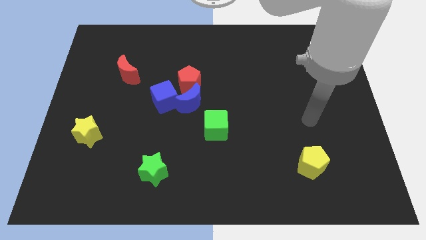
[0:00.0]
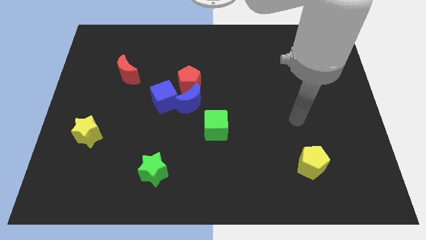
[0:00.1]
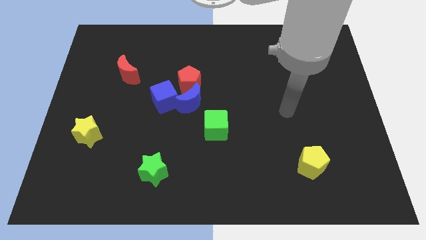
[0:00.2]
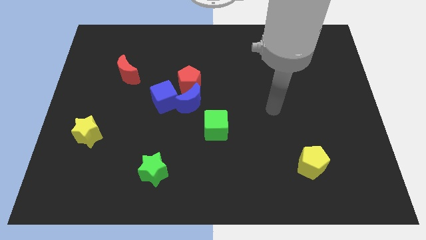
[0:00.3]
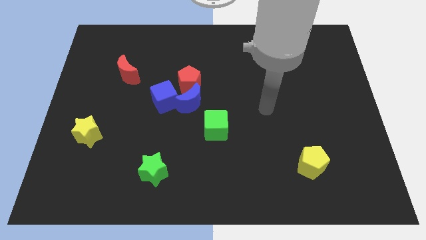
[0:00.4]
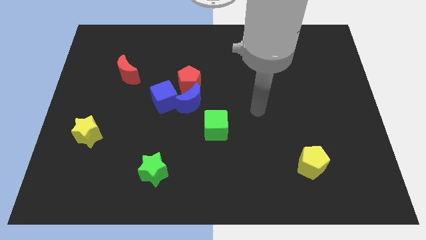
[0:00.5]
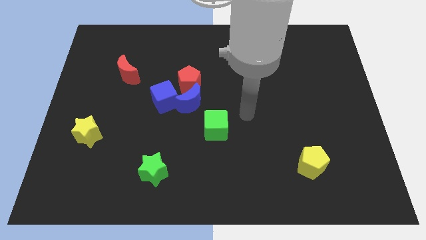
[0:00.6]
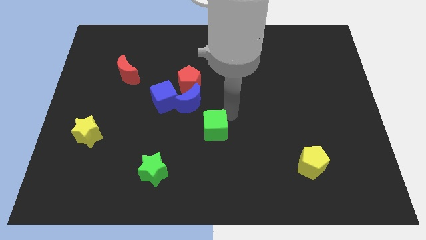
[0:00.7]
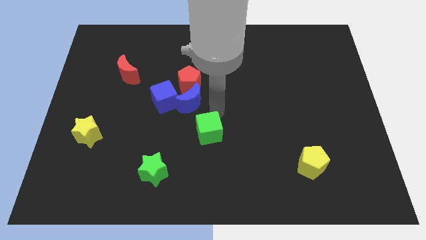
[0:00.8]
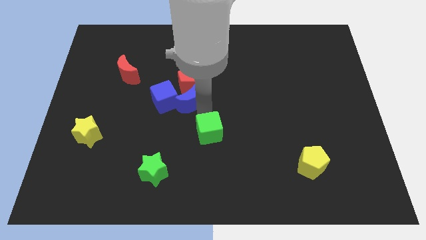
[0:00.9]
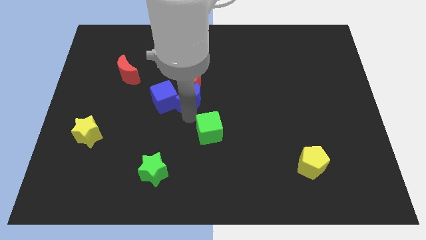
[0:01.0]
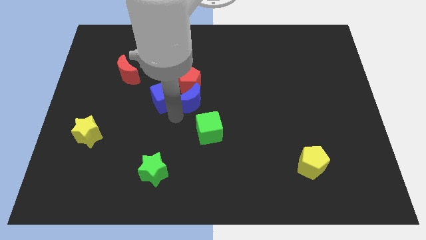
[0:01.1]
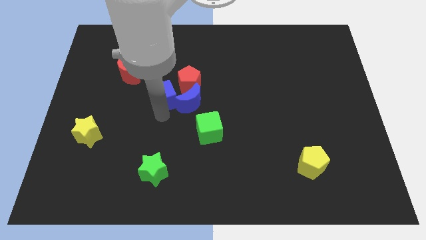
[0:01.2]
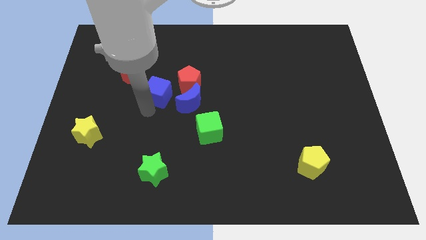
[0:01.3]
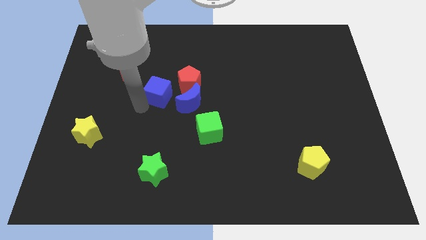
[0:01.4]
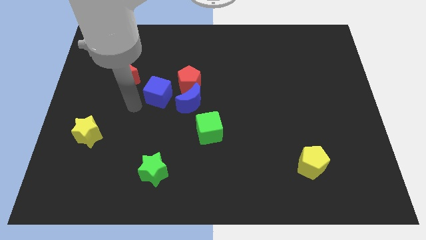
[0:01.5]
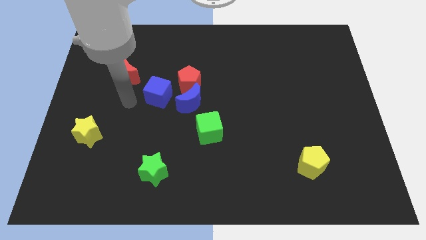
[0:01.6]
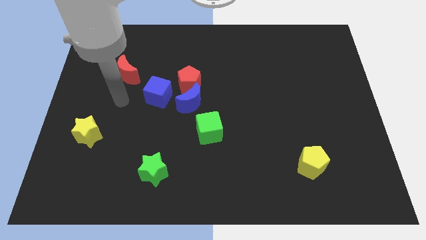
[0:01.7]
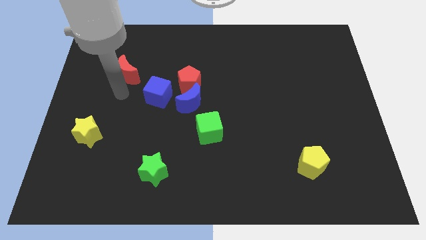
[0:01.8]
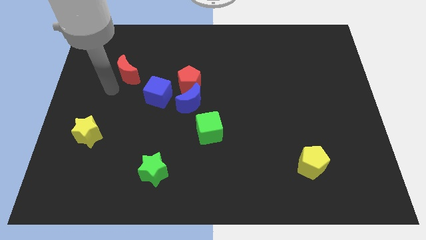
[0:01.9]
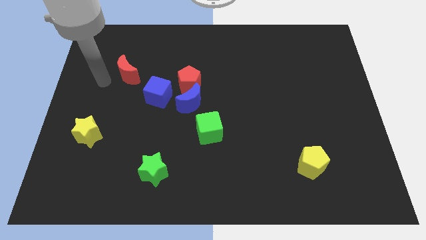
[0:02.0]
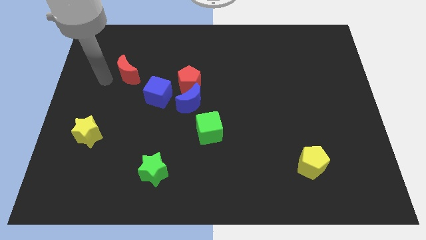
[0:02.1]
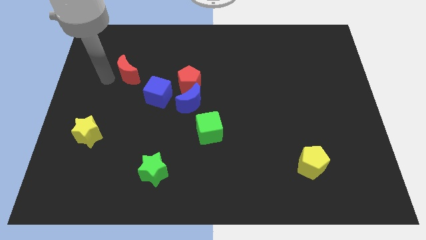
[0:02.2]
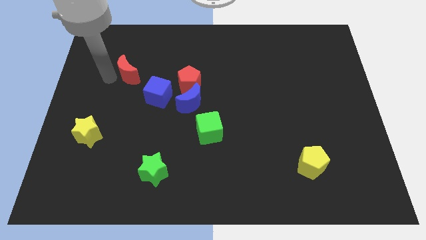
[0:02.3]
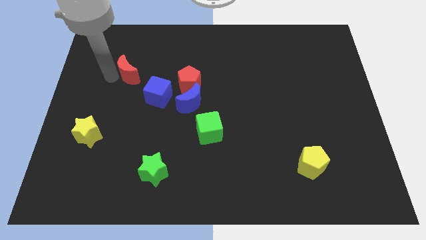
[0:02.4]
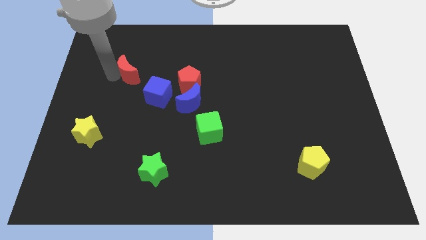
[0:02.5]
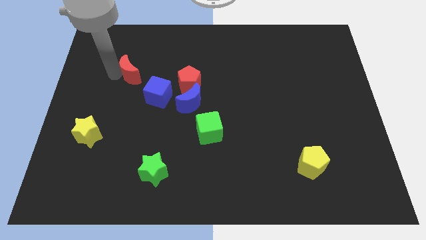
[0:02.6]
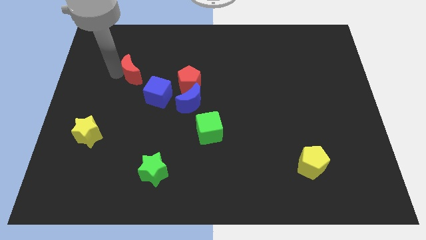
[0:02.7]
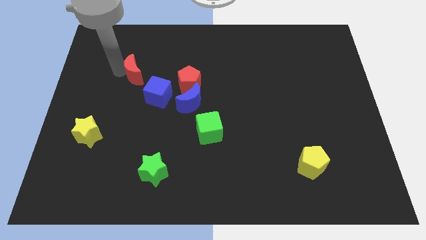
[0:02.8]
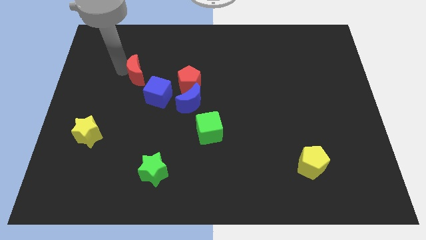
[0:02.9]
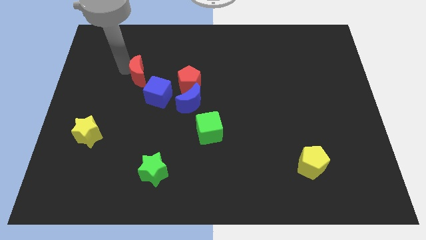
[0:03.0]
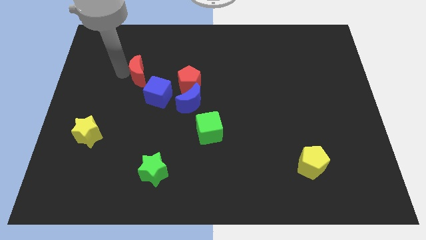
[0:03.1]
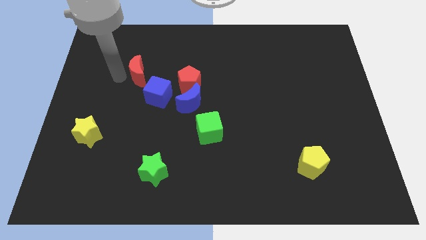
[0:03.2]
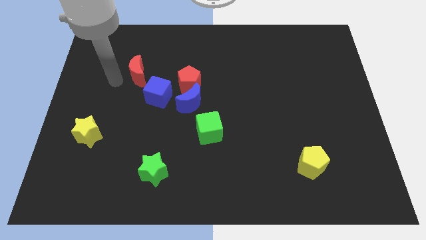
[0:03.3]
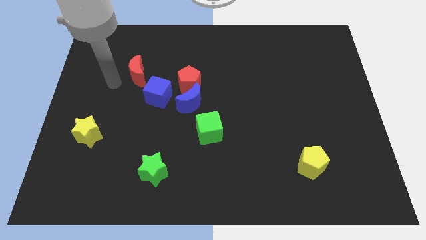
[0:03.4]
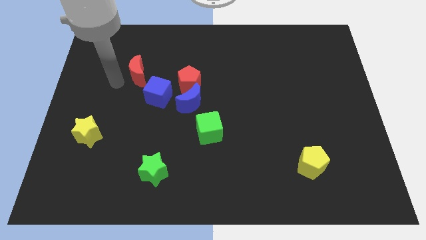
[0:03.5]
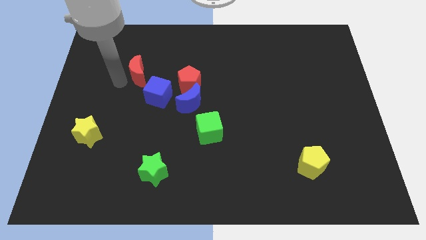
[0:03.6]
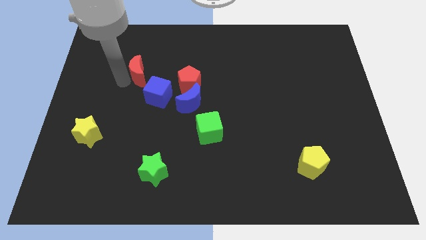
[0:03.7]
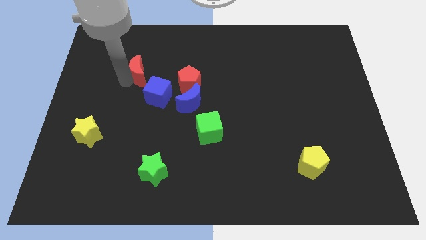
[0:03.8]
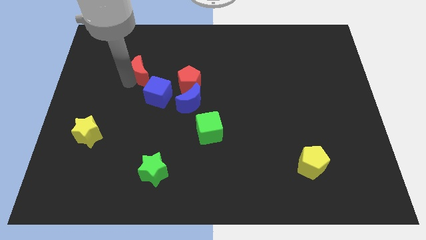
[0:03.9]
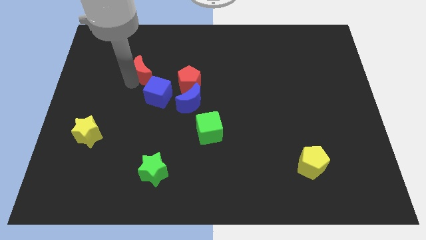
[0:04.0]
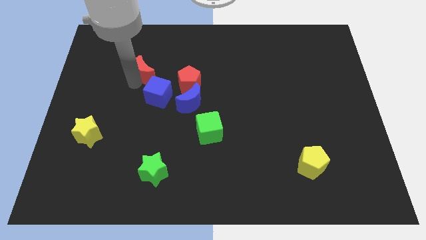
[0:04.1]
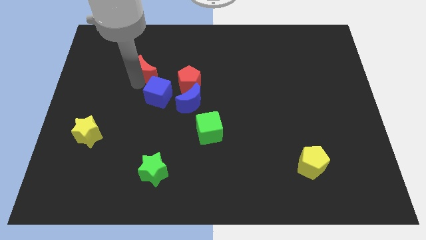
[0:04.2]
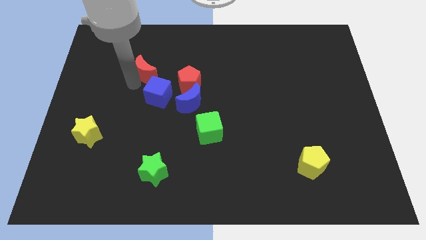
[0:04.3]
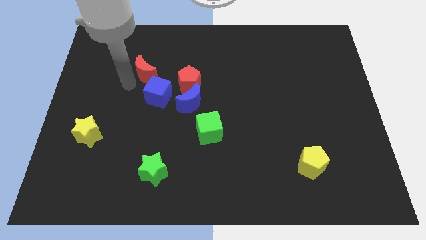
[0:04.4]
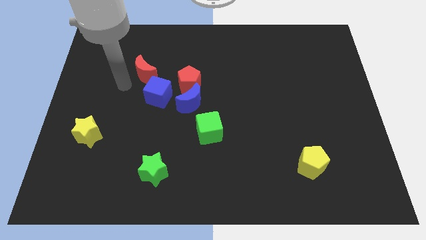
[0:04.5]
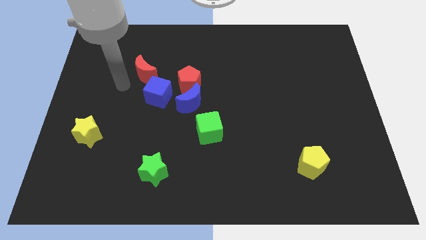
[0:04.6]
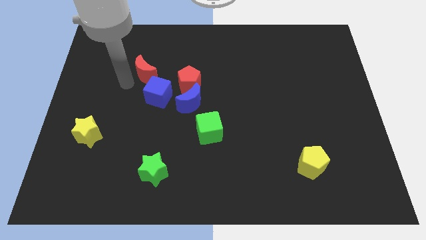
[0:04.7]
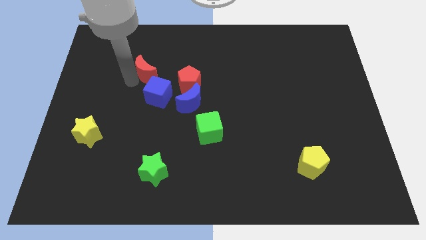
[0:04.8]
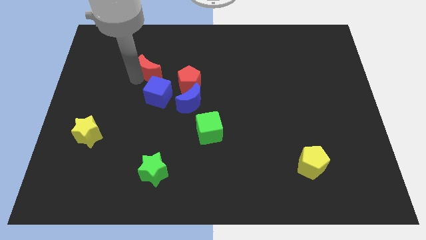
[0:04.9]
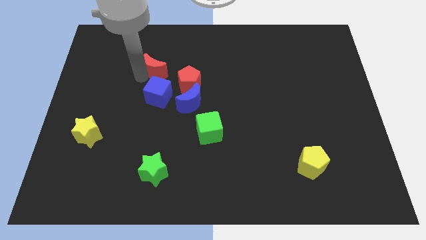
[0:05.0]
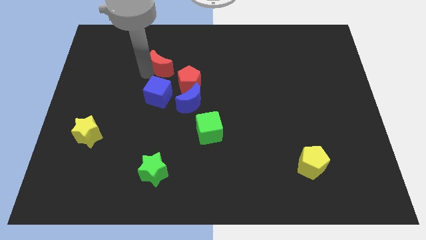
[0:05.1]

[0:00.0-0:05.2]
slightly move the red moon to the right

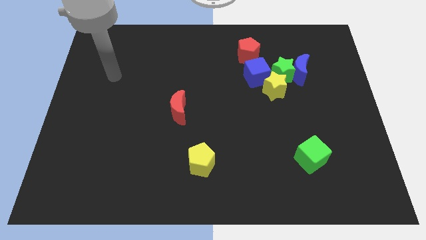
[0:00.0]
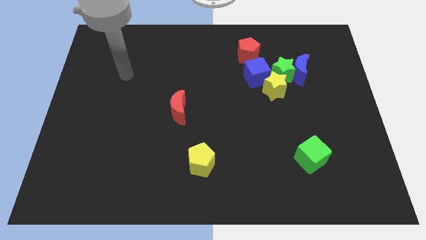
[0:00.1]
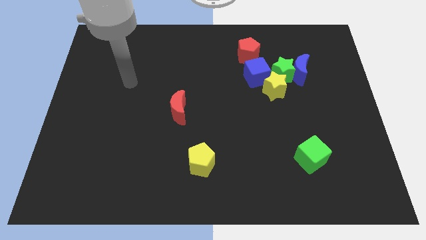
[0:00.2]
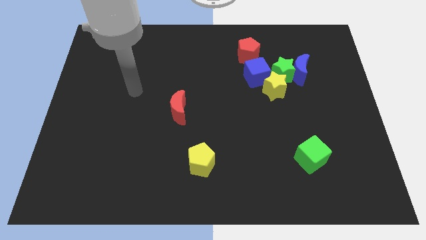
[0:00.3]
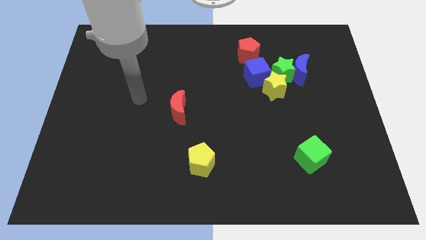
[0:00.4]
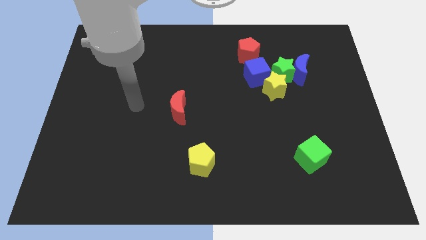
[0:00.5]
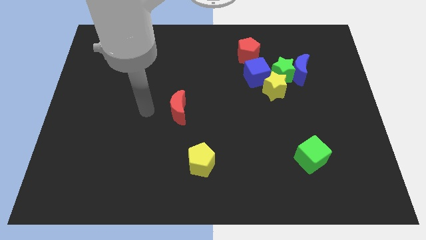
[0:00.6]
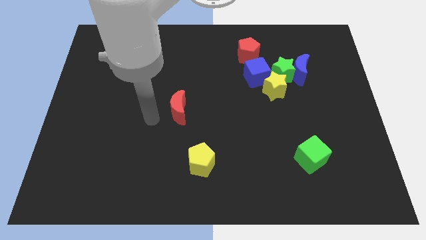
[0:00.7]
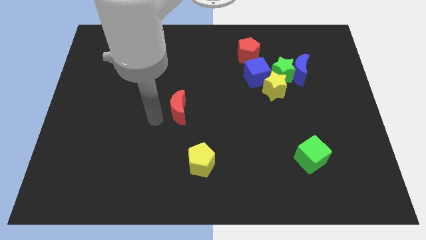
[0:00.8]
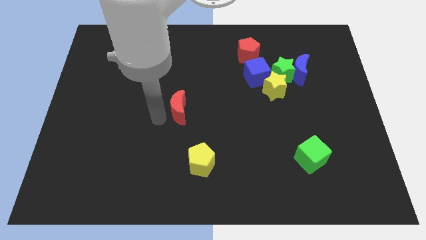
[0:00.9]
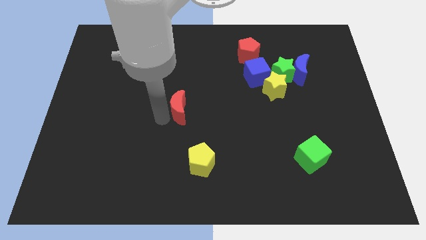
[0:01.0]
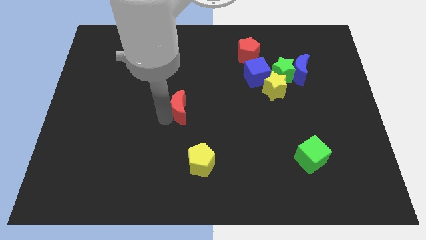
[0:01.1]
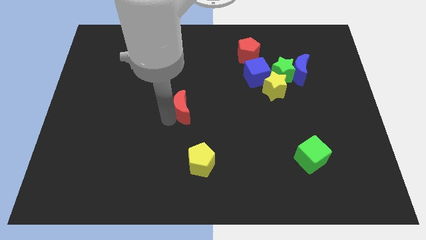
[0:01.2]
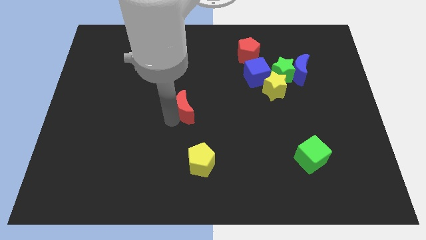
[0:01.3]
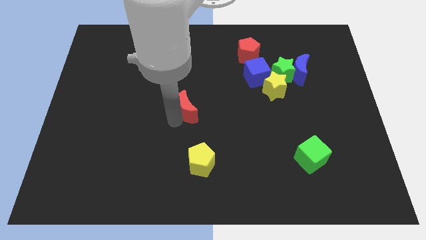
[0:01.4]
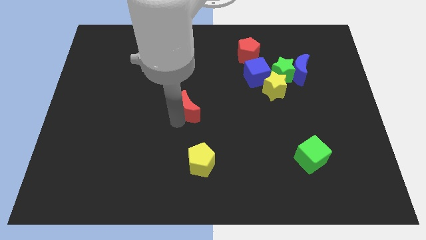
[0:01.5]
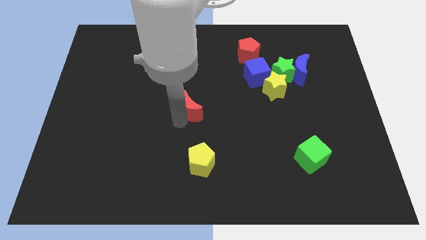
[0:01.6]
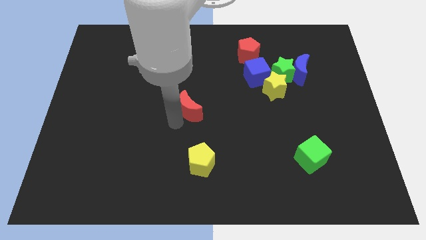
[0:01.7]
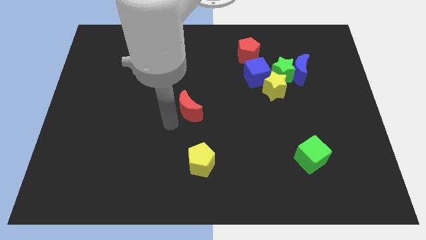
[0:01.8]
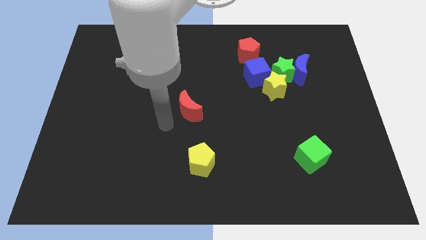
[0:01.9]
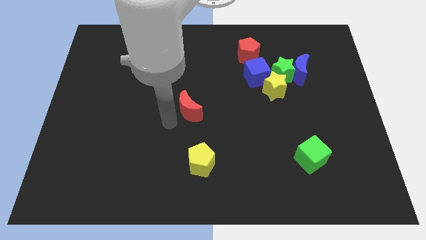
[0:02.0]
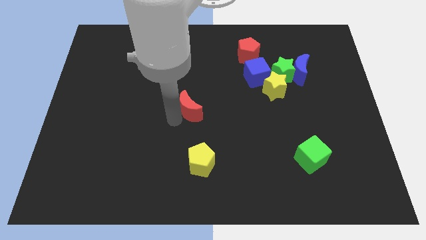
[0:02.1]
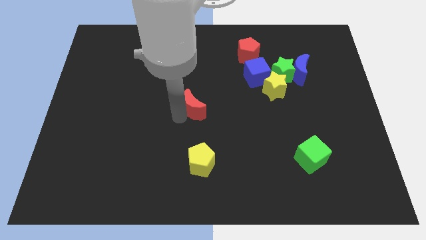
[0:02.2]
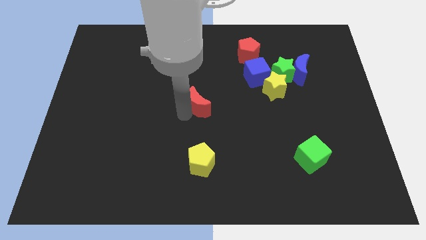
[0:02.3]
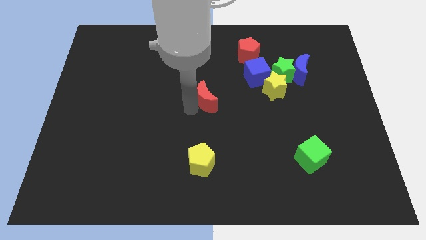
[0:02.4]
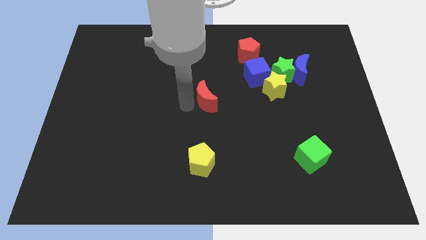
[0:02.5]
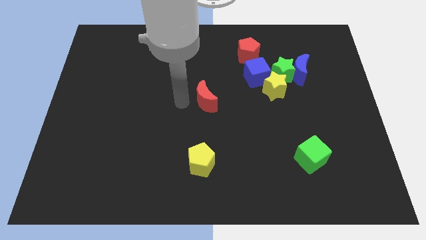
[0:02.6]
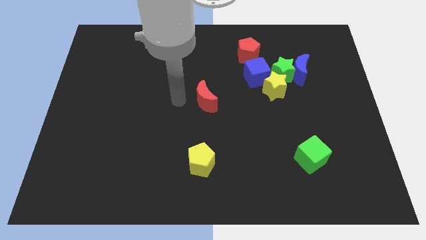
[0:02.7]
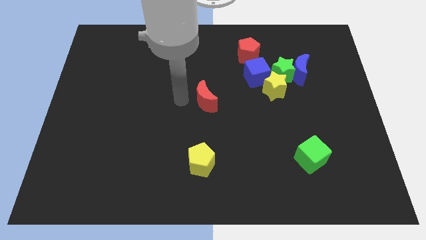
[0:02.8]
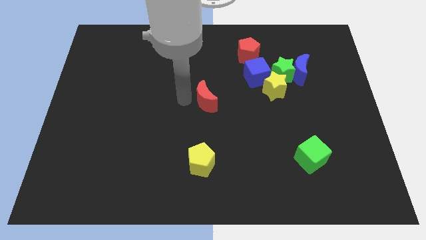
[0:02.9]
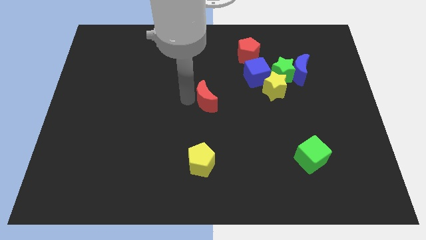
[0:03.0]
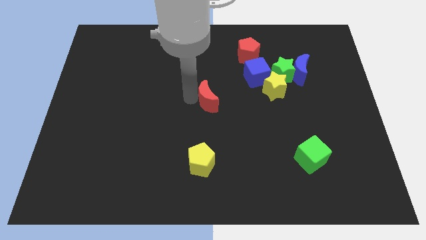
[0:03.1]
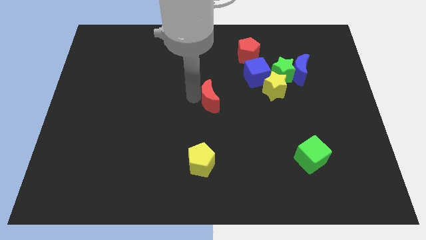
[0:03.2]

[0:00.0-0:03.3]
slide the red moon slightly to the right
